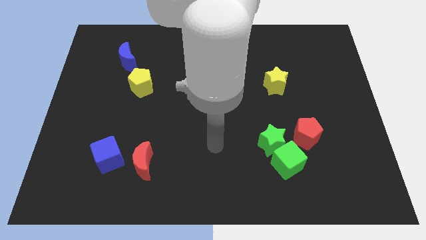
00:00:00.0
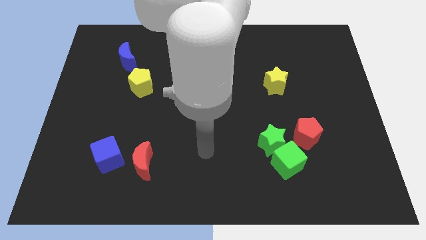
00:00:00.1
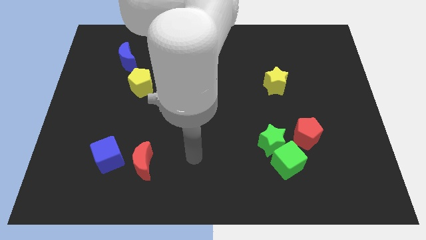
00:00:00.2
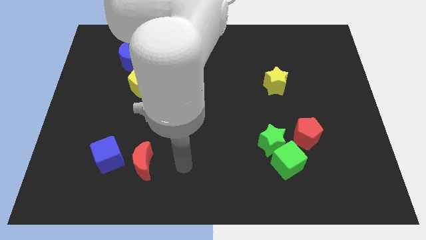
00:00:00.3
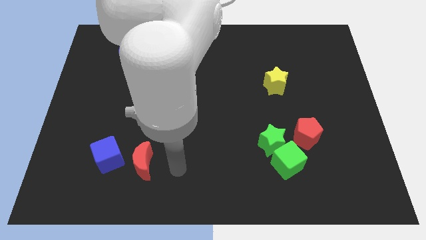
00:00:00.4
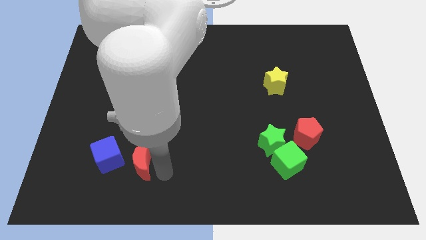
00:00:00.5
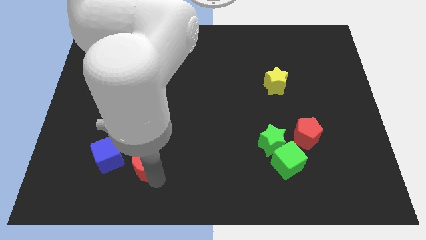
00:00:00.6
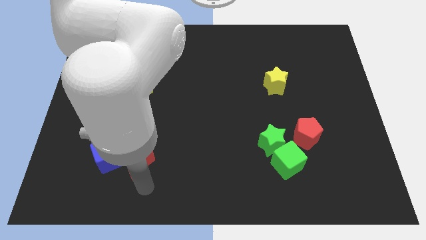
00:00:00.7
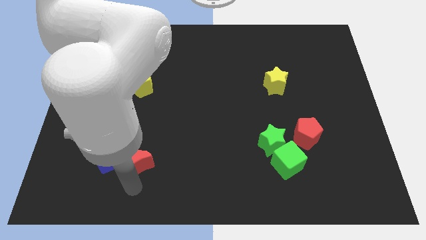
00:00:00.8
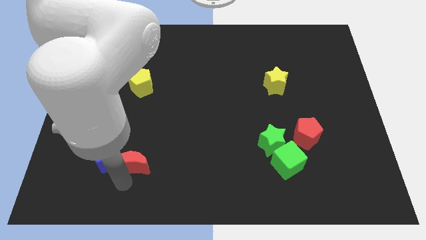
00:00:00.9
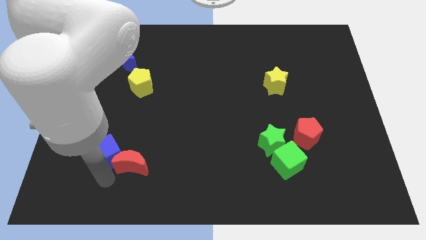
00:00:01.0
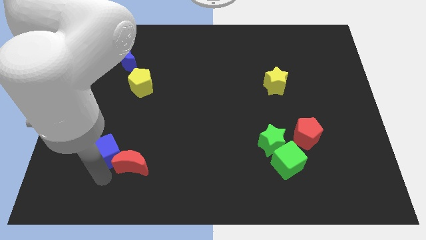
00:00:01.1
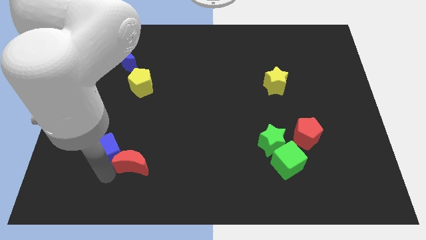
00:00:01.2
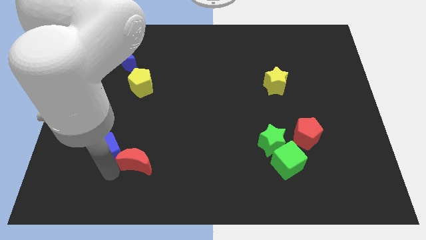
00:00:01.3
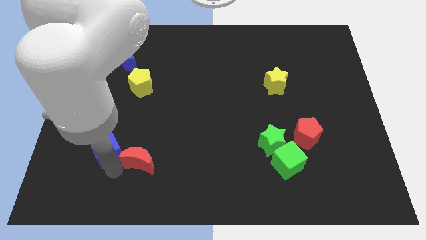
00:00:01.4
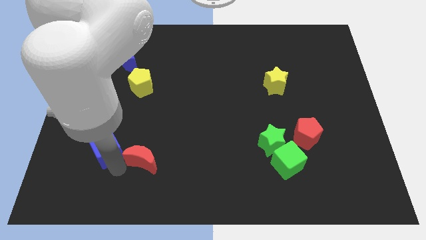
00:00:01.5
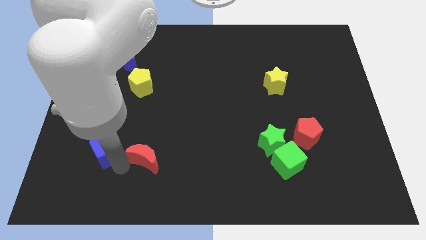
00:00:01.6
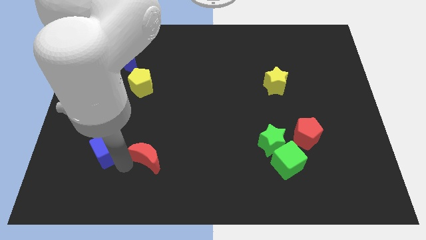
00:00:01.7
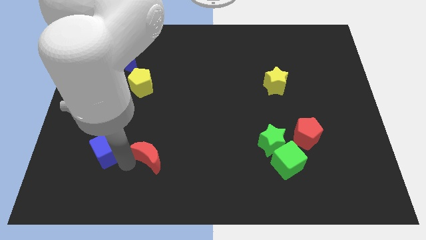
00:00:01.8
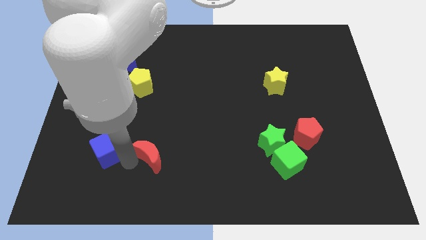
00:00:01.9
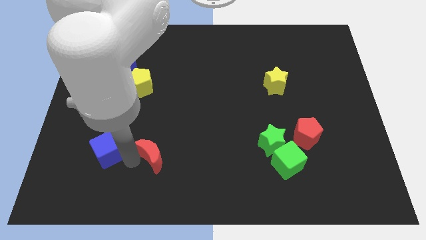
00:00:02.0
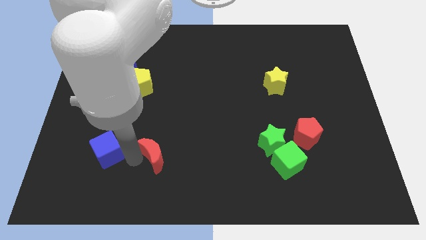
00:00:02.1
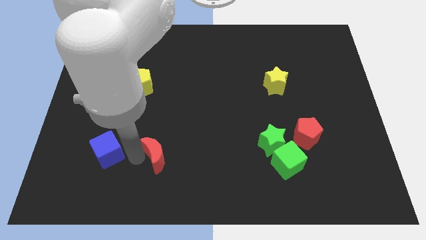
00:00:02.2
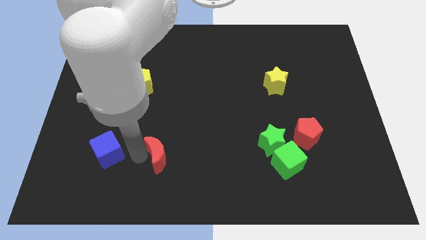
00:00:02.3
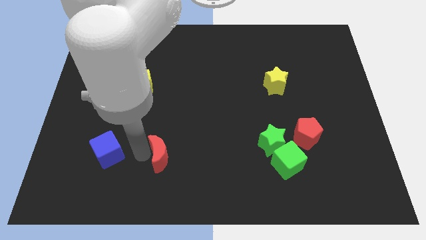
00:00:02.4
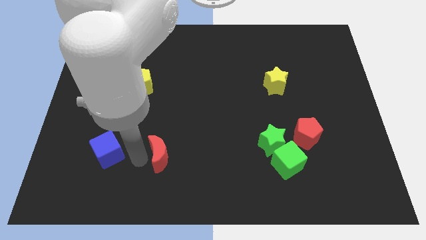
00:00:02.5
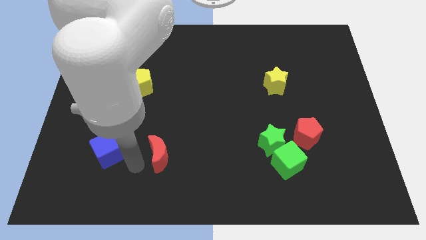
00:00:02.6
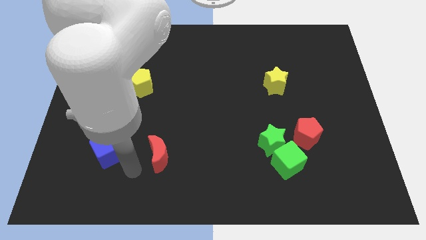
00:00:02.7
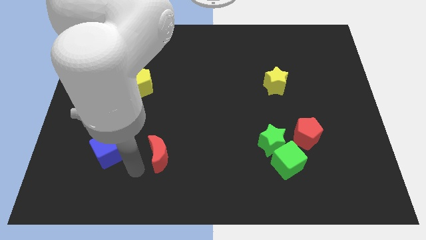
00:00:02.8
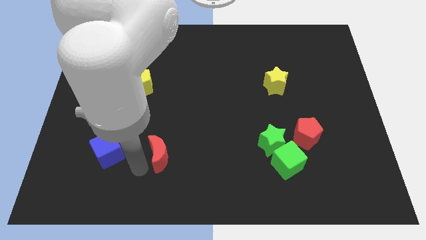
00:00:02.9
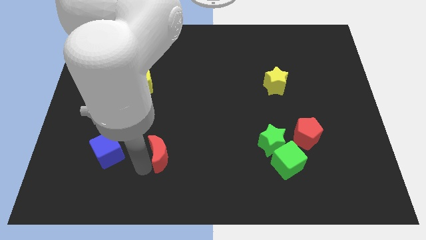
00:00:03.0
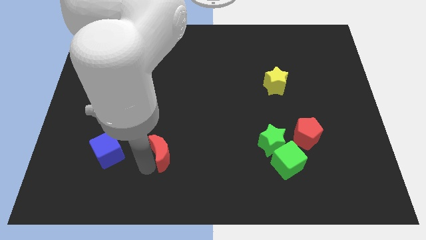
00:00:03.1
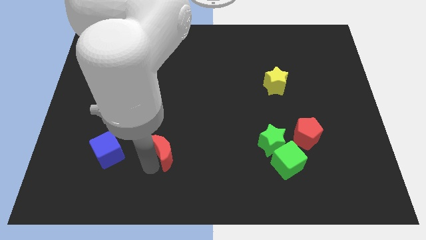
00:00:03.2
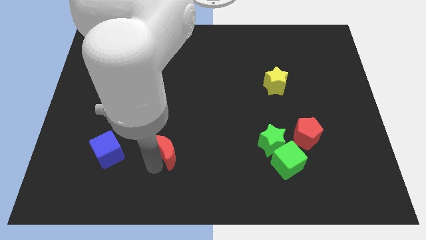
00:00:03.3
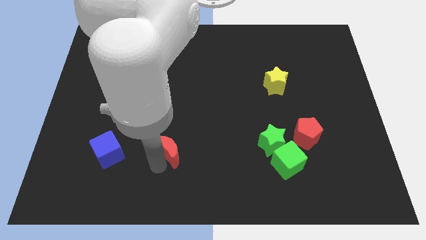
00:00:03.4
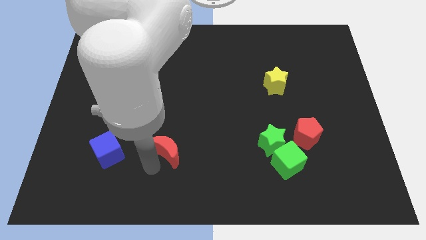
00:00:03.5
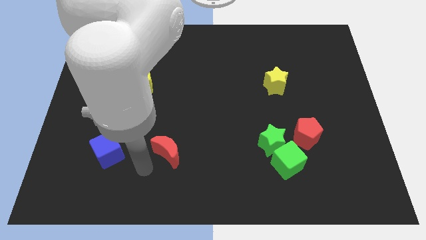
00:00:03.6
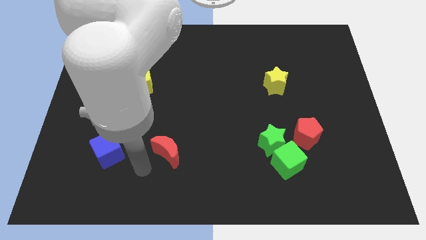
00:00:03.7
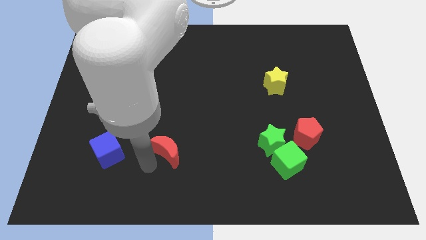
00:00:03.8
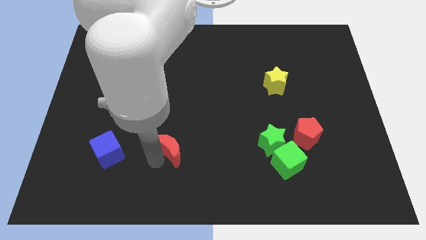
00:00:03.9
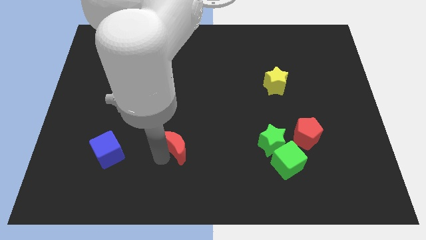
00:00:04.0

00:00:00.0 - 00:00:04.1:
slide the red moon up and to the right diagonally a little

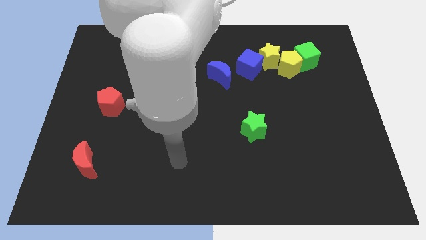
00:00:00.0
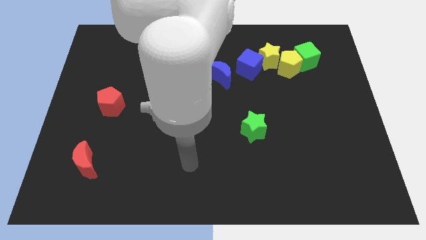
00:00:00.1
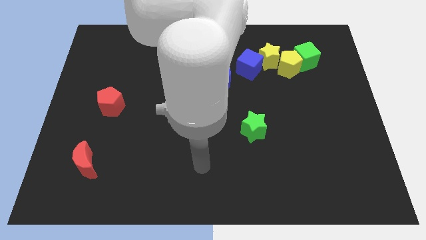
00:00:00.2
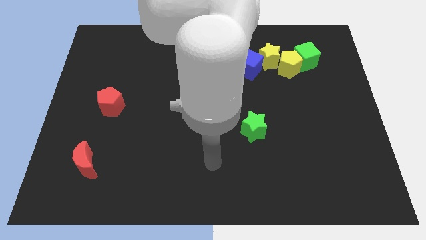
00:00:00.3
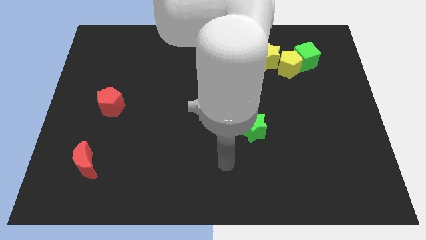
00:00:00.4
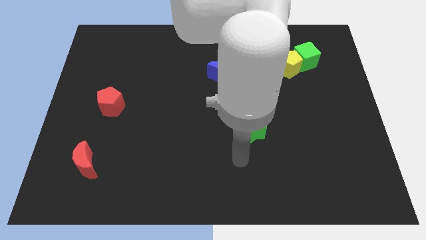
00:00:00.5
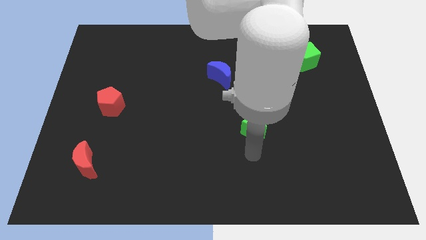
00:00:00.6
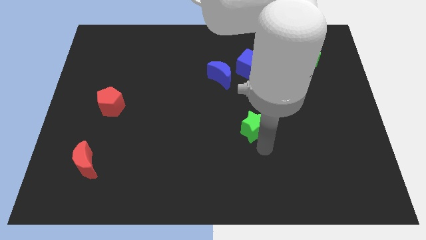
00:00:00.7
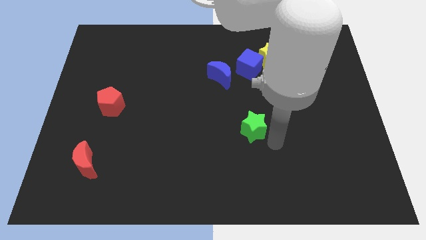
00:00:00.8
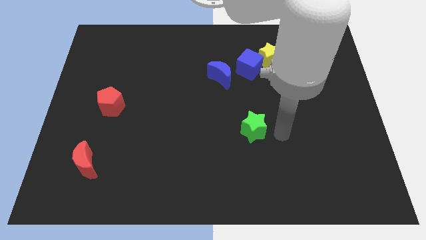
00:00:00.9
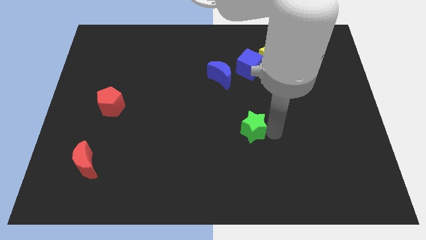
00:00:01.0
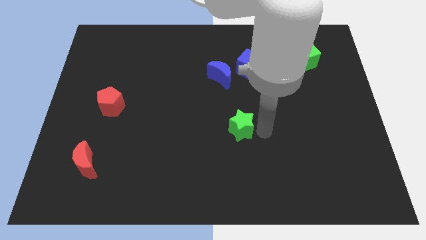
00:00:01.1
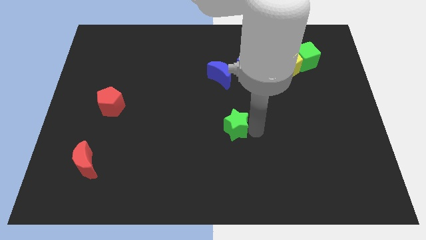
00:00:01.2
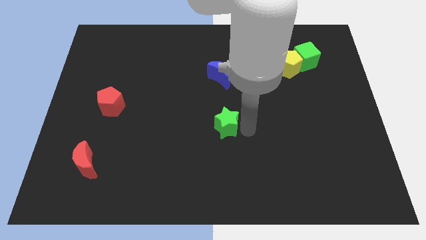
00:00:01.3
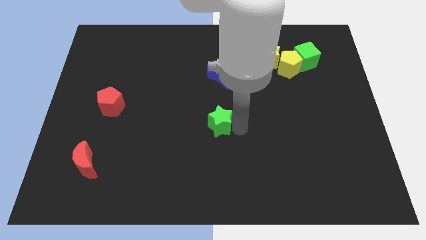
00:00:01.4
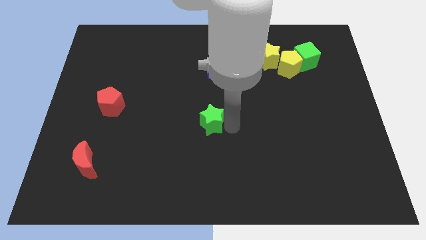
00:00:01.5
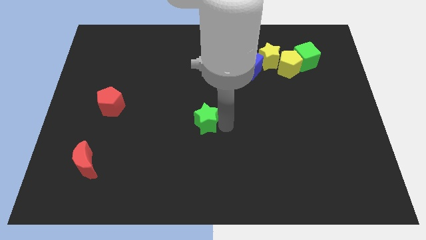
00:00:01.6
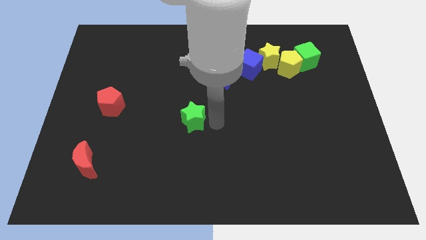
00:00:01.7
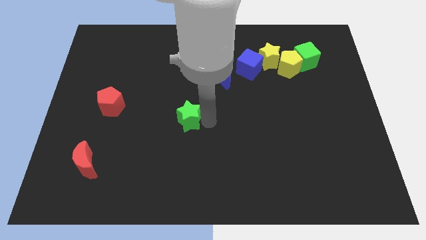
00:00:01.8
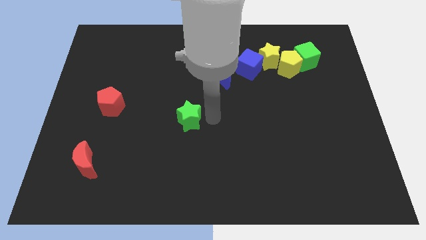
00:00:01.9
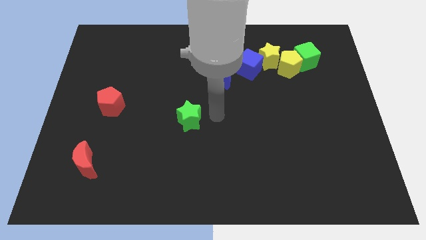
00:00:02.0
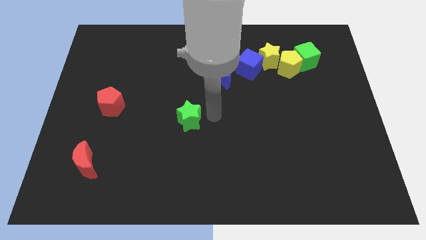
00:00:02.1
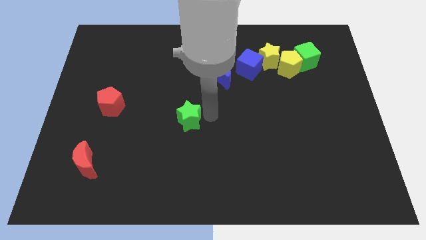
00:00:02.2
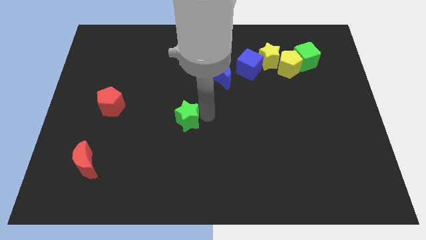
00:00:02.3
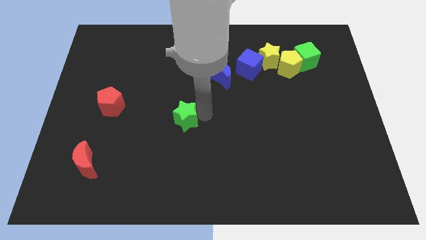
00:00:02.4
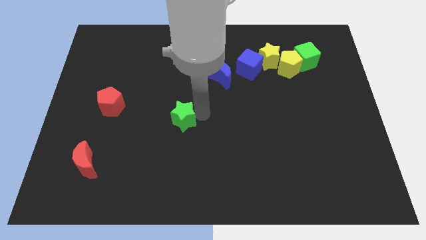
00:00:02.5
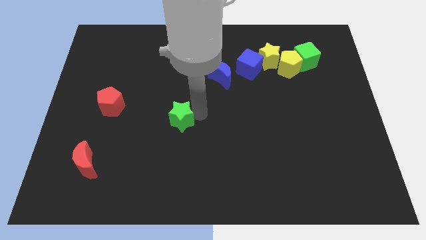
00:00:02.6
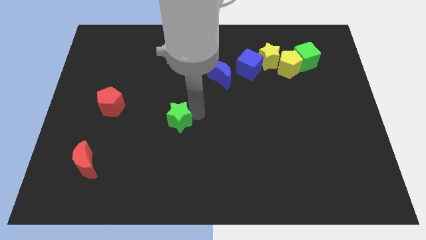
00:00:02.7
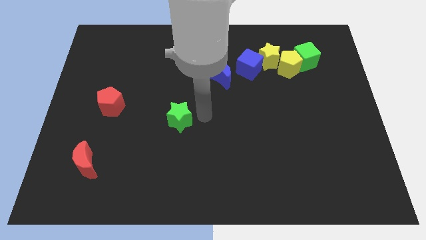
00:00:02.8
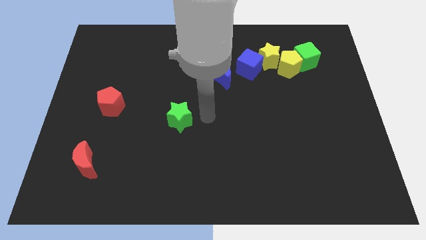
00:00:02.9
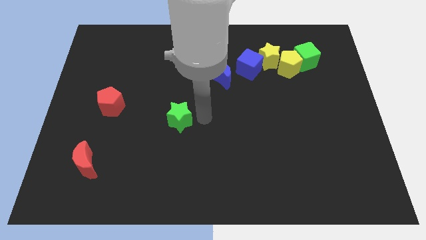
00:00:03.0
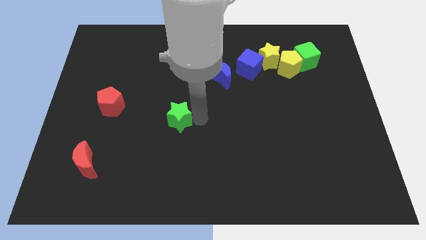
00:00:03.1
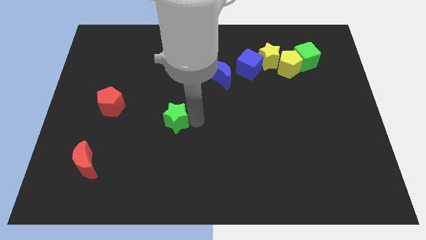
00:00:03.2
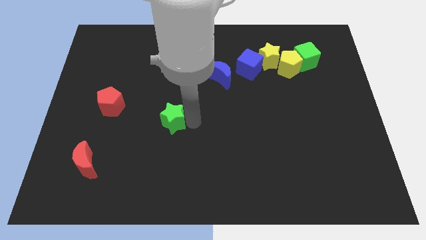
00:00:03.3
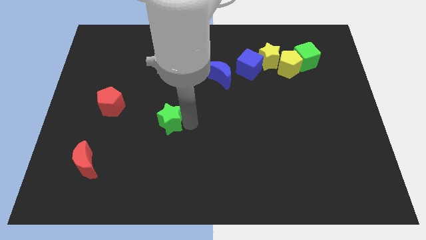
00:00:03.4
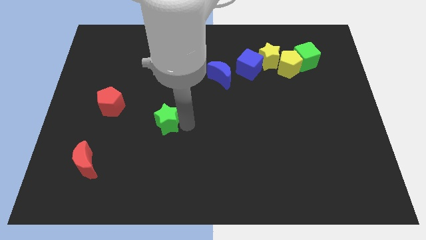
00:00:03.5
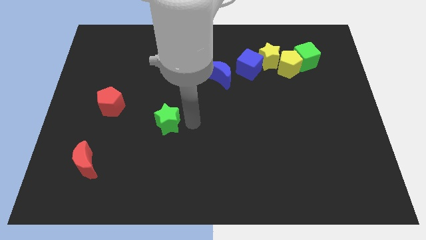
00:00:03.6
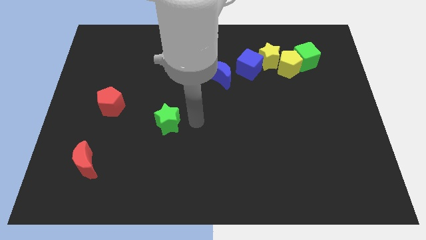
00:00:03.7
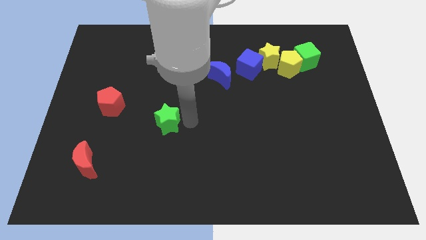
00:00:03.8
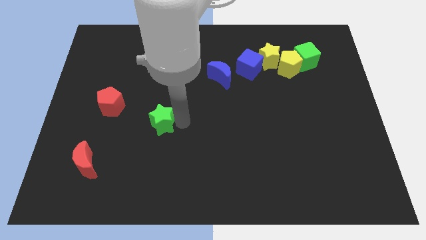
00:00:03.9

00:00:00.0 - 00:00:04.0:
slide the green star left

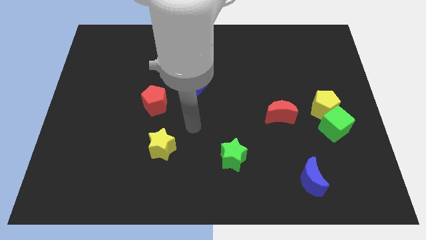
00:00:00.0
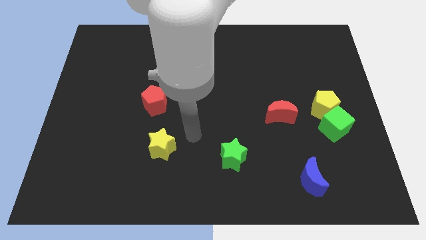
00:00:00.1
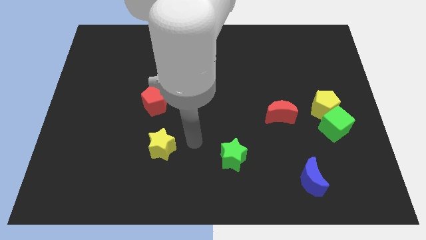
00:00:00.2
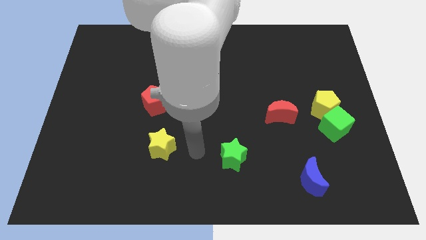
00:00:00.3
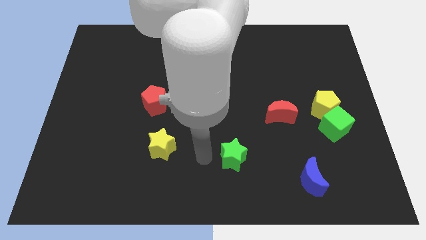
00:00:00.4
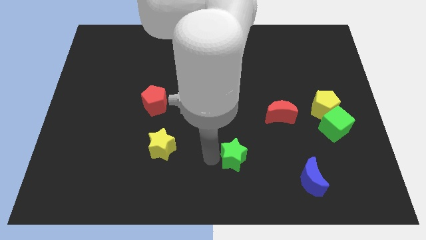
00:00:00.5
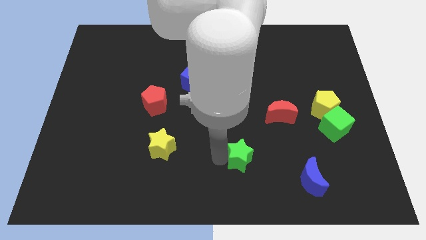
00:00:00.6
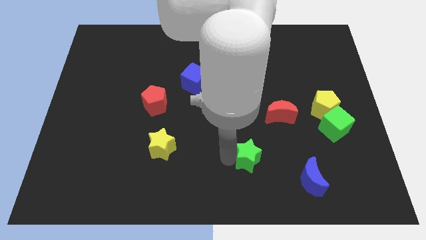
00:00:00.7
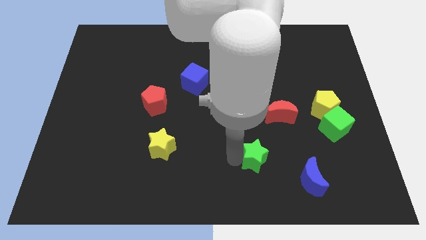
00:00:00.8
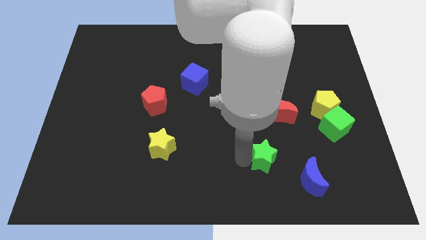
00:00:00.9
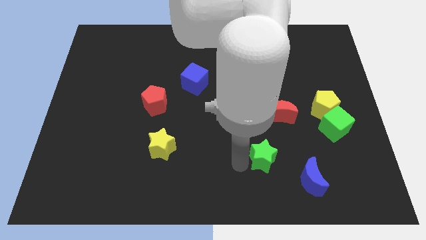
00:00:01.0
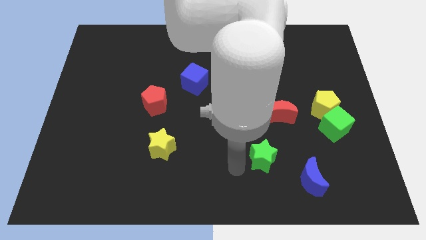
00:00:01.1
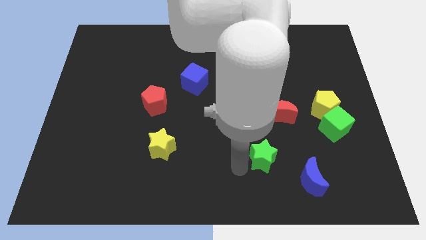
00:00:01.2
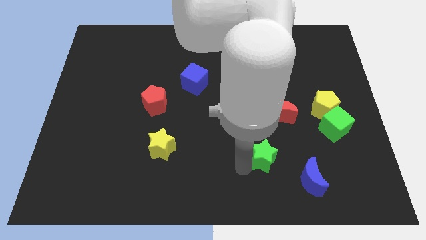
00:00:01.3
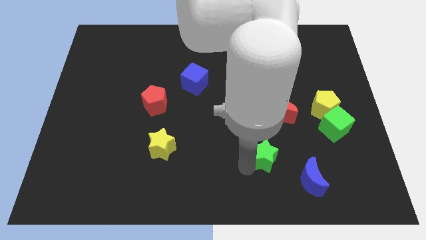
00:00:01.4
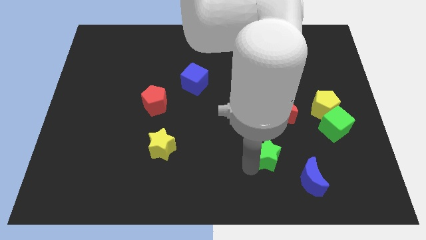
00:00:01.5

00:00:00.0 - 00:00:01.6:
push the green star a bit right
